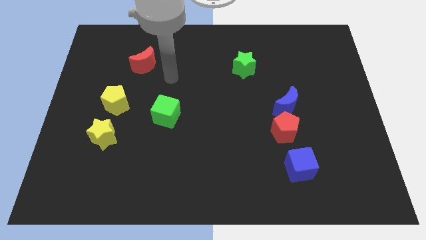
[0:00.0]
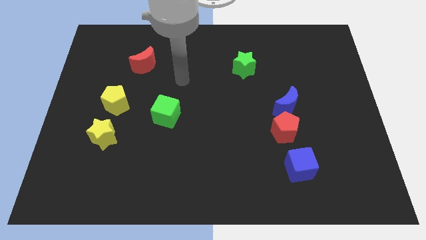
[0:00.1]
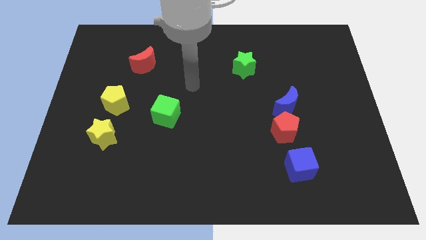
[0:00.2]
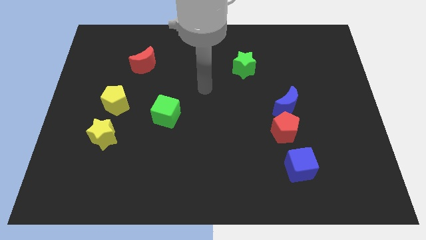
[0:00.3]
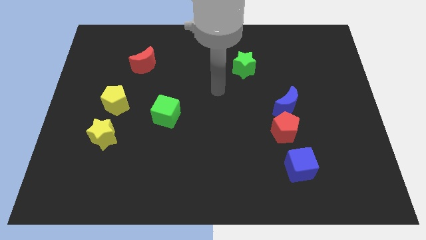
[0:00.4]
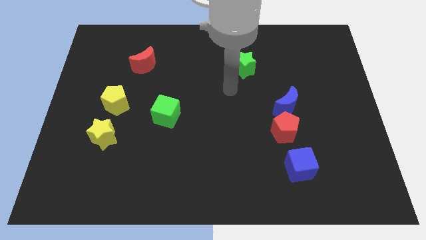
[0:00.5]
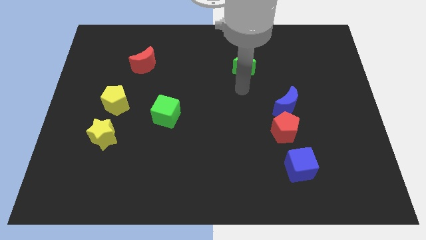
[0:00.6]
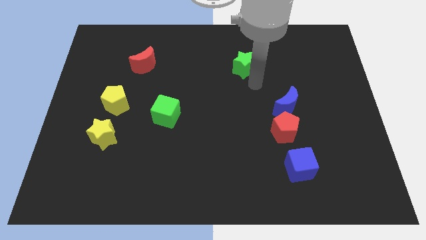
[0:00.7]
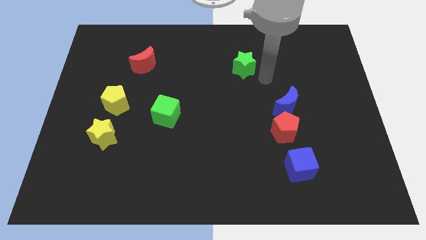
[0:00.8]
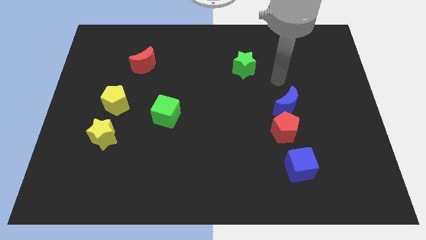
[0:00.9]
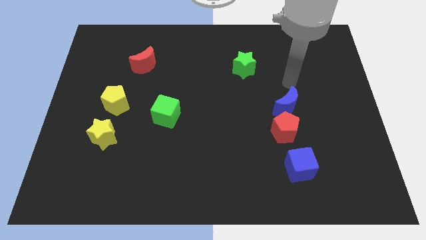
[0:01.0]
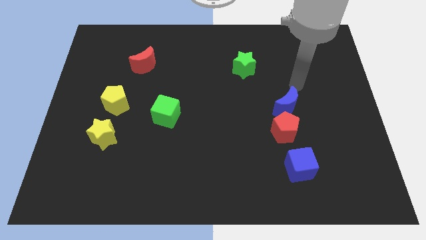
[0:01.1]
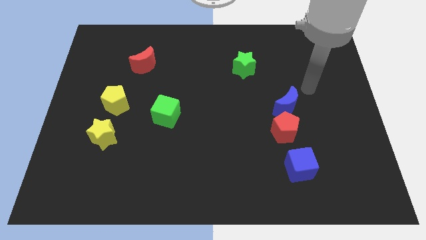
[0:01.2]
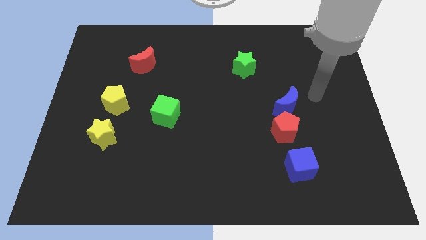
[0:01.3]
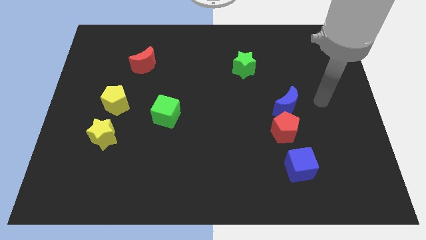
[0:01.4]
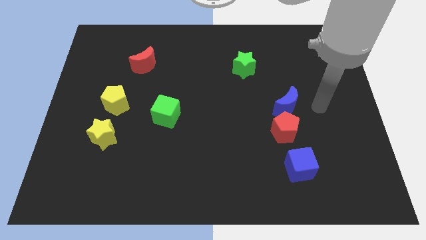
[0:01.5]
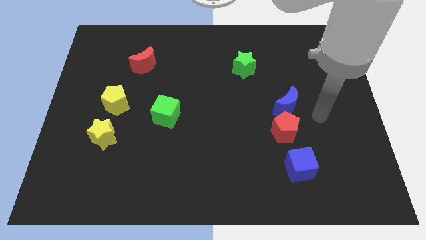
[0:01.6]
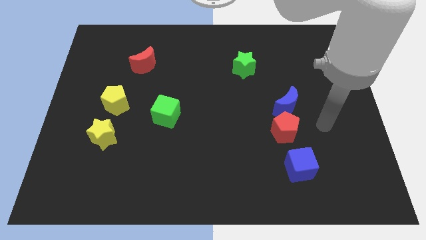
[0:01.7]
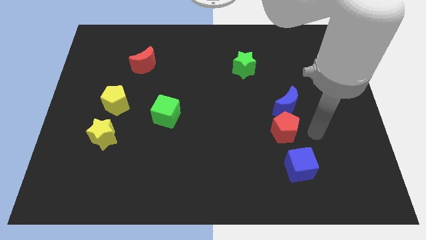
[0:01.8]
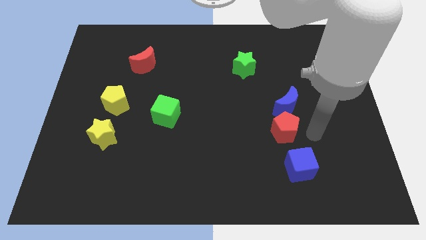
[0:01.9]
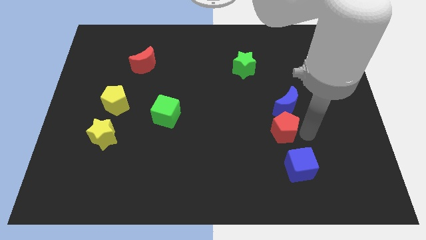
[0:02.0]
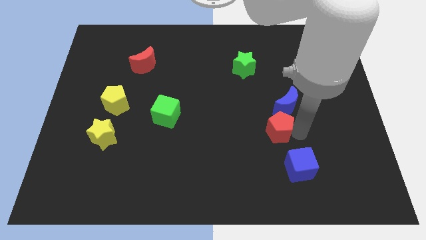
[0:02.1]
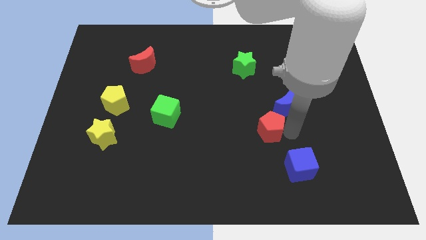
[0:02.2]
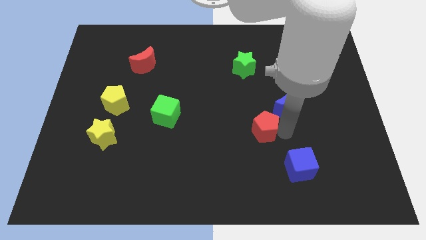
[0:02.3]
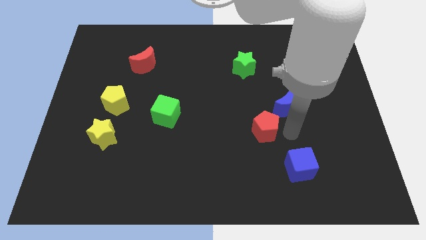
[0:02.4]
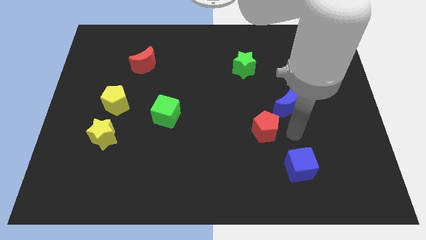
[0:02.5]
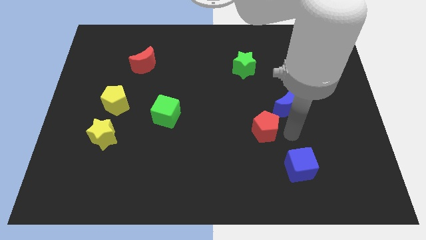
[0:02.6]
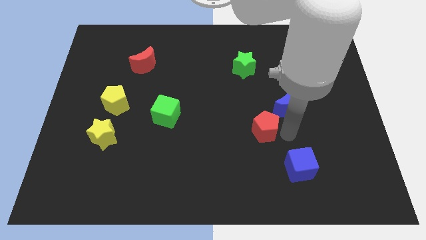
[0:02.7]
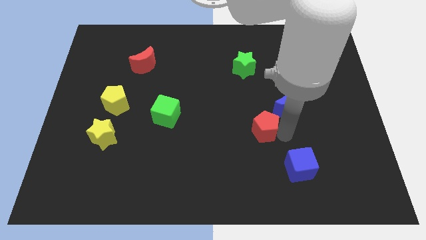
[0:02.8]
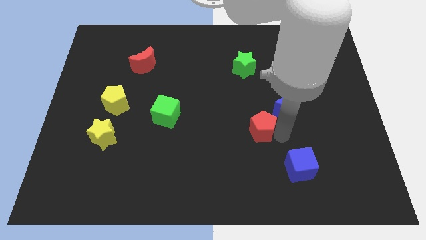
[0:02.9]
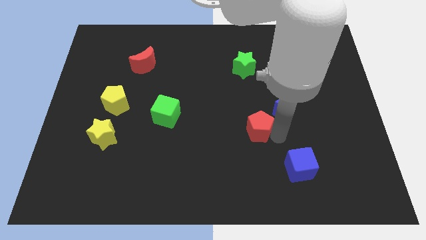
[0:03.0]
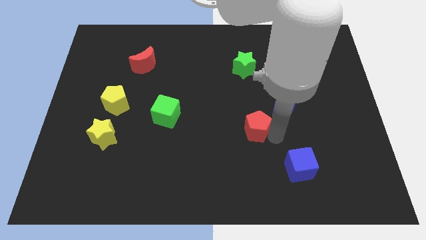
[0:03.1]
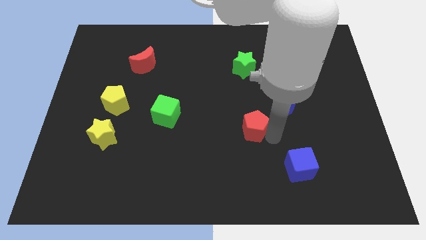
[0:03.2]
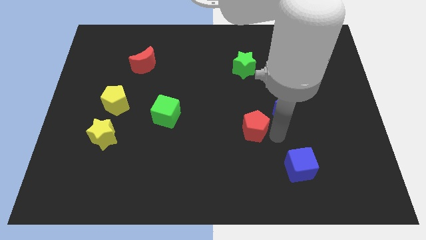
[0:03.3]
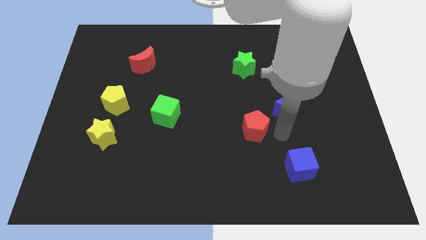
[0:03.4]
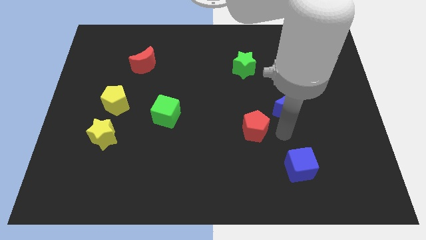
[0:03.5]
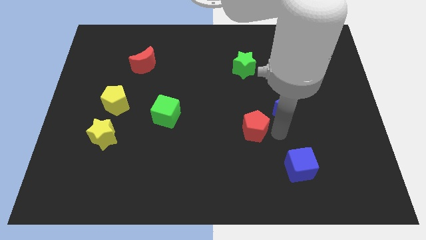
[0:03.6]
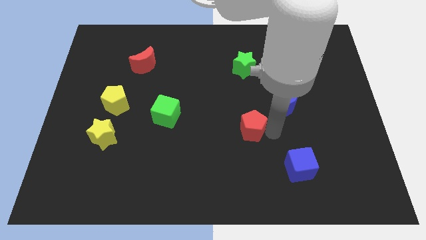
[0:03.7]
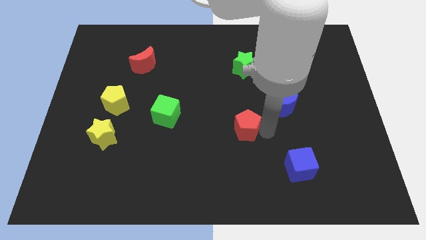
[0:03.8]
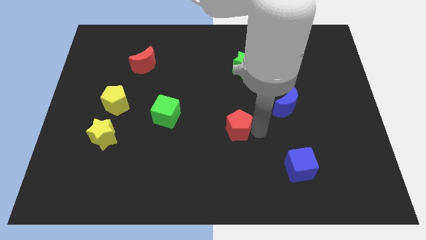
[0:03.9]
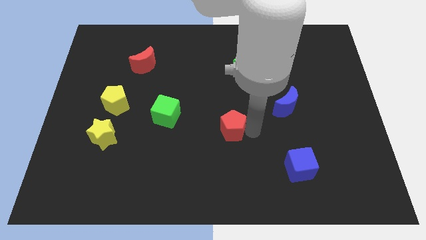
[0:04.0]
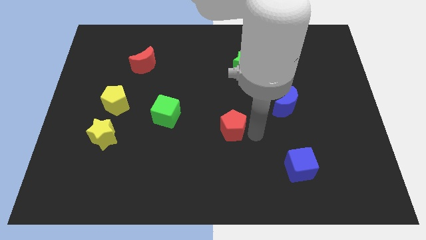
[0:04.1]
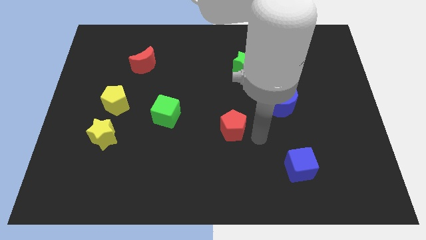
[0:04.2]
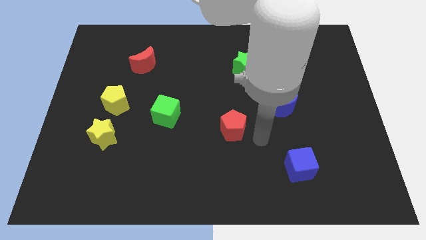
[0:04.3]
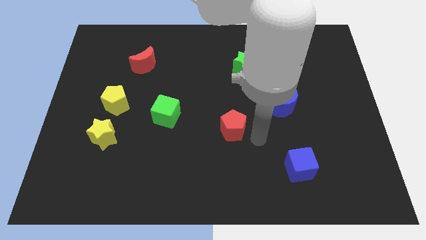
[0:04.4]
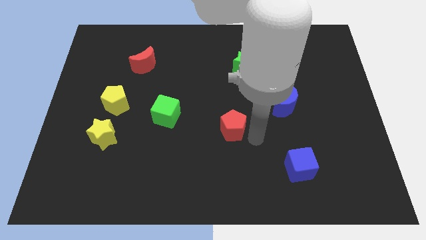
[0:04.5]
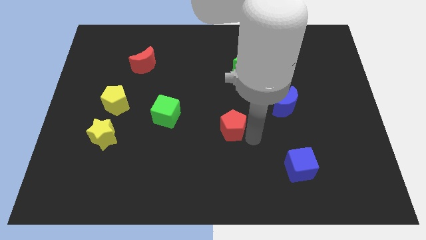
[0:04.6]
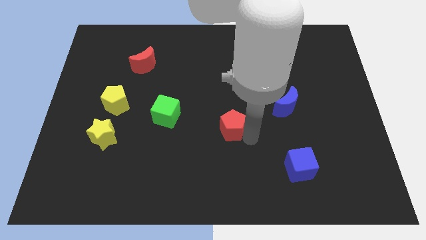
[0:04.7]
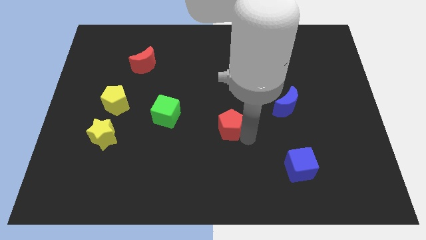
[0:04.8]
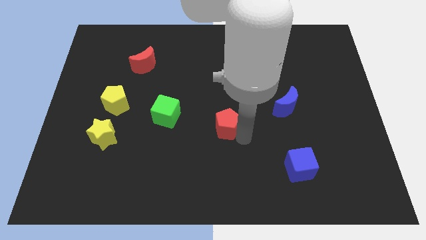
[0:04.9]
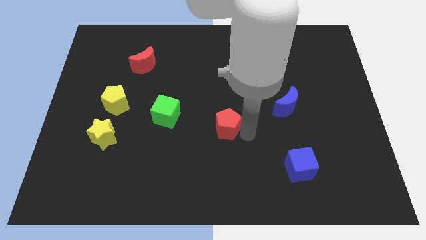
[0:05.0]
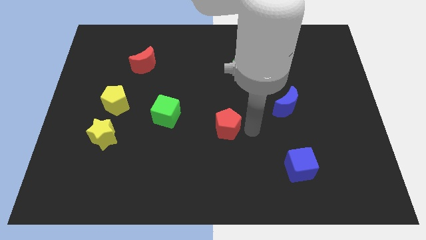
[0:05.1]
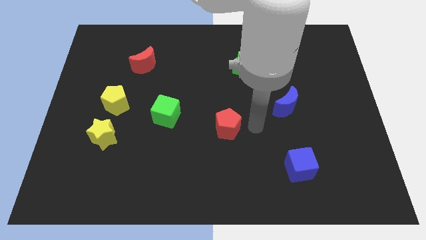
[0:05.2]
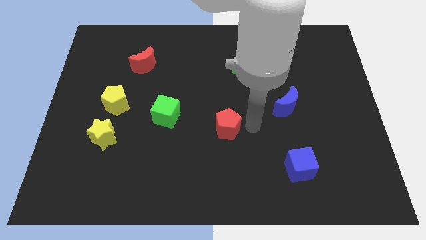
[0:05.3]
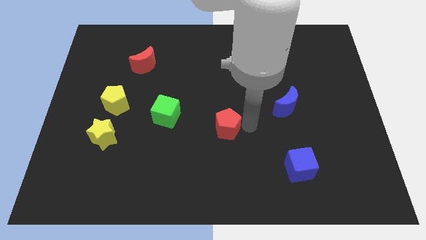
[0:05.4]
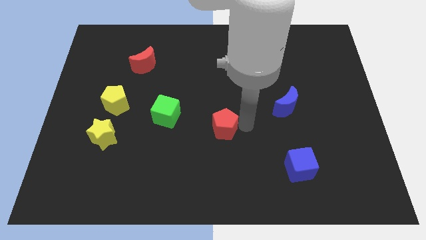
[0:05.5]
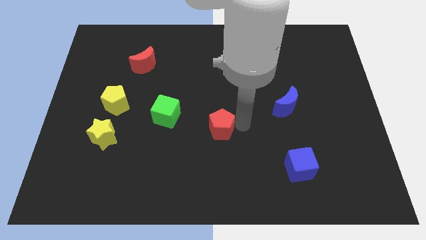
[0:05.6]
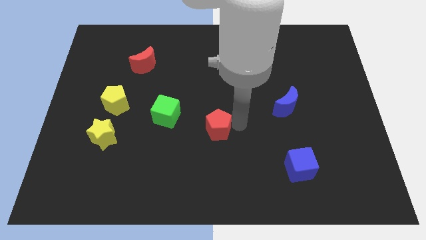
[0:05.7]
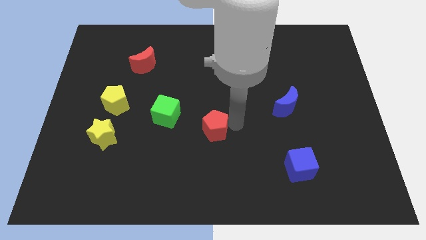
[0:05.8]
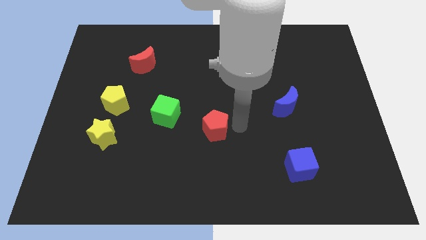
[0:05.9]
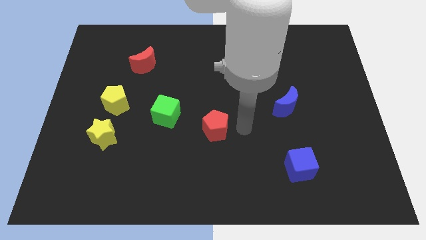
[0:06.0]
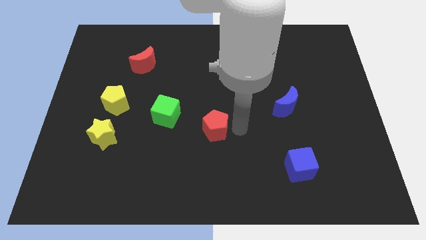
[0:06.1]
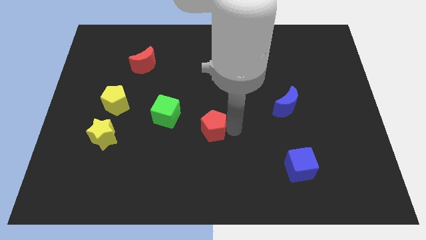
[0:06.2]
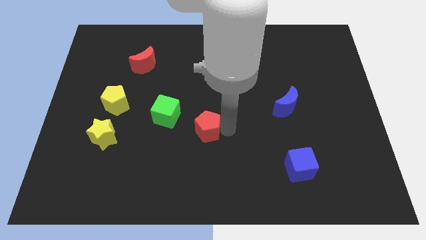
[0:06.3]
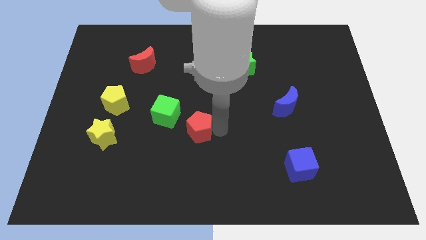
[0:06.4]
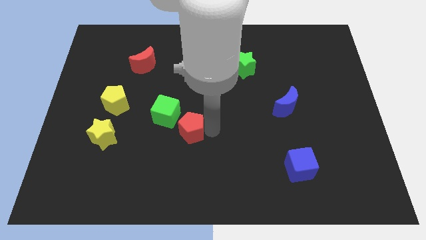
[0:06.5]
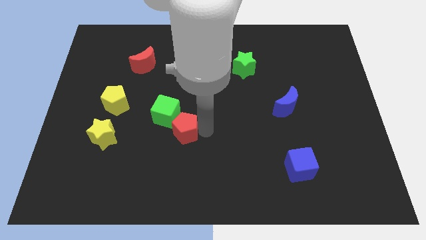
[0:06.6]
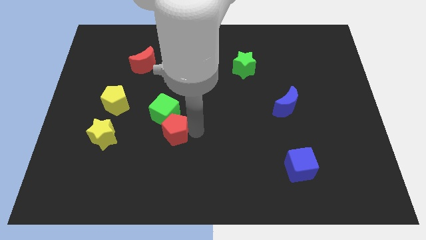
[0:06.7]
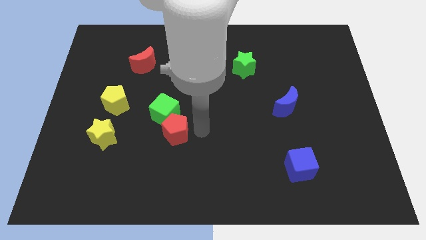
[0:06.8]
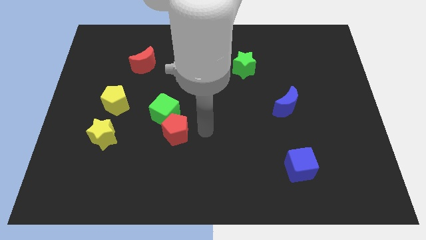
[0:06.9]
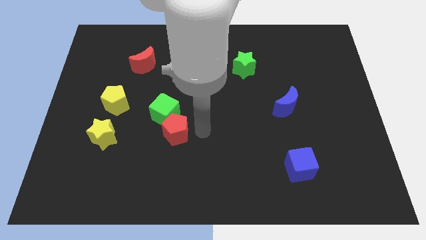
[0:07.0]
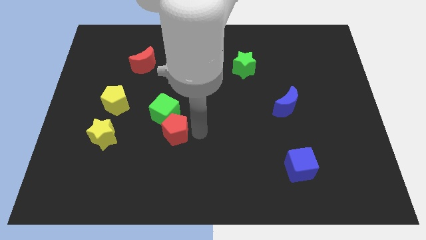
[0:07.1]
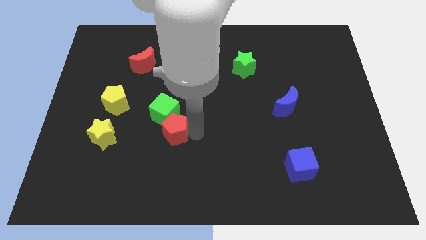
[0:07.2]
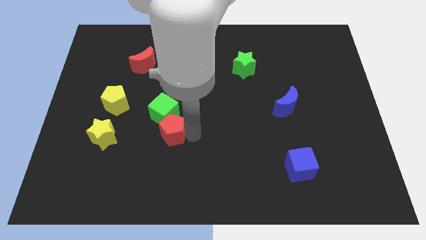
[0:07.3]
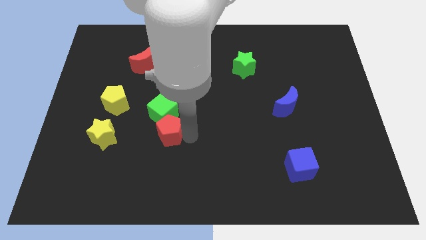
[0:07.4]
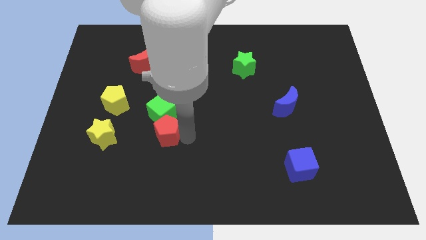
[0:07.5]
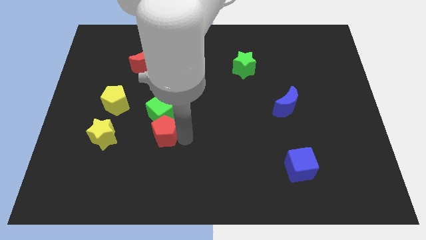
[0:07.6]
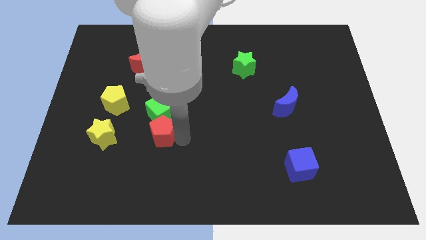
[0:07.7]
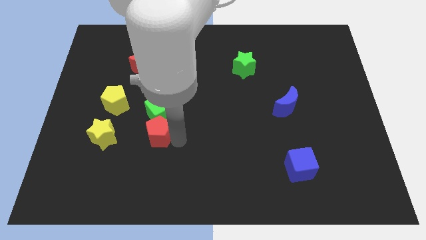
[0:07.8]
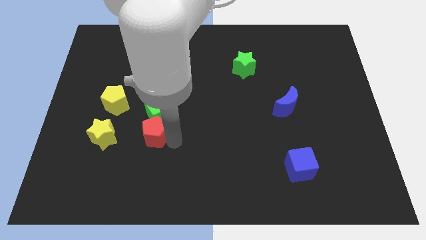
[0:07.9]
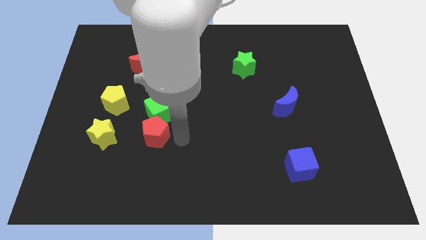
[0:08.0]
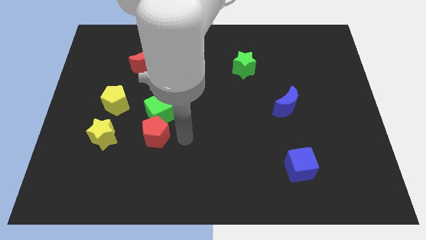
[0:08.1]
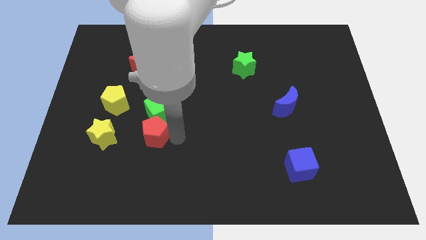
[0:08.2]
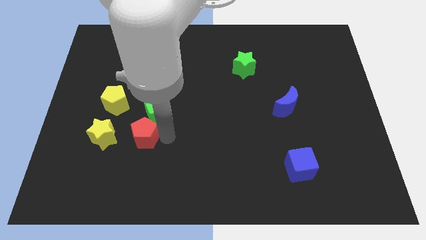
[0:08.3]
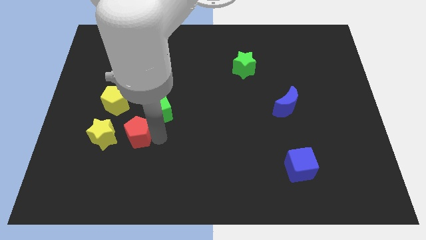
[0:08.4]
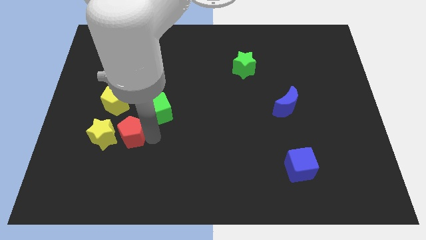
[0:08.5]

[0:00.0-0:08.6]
move the red pentagon to the yellow star
